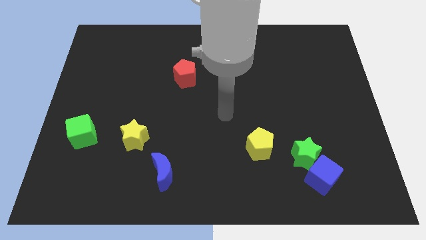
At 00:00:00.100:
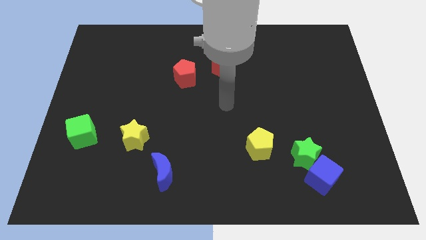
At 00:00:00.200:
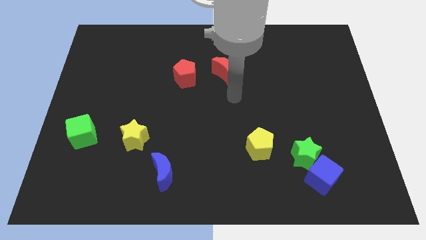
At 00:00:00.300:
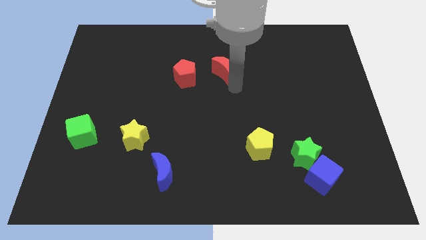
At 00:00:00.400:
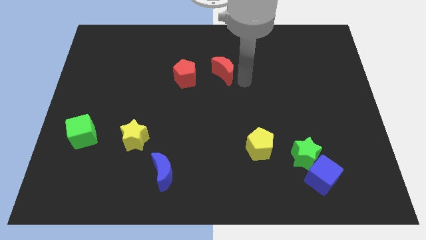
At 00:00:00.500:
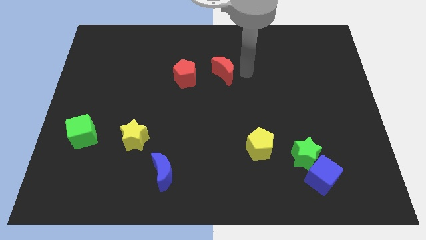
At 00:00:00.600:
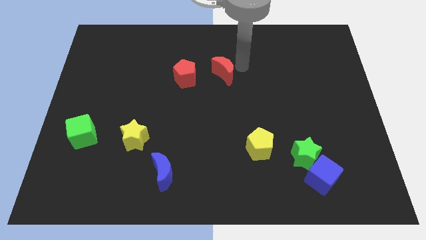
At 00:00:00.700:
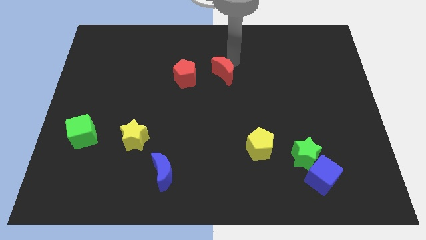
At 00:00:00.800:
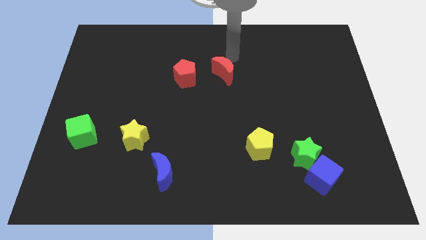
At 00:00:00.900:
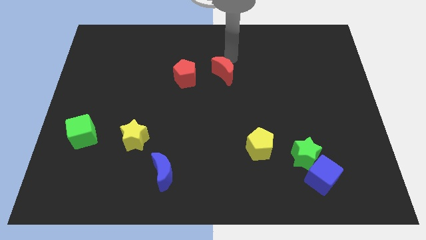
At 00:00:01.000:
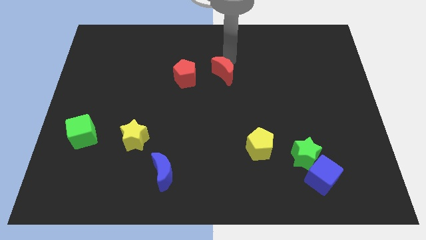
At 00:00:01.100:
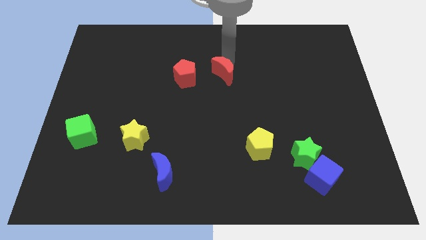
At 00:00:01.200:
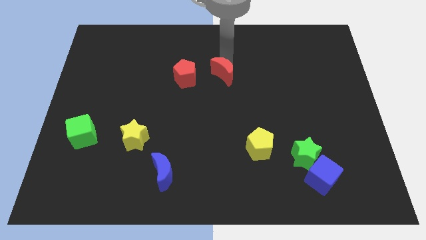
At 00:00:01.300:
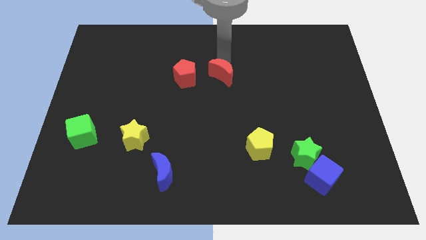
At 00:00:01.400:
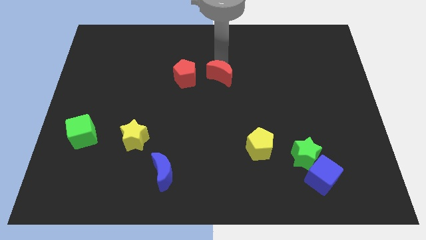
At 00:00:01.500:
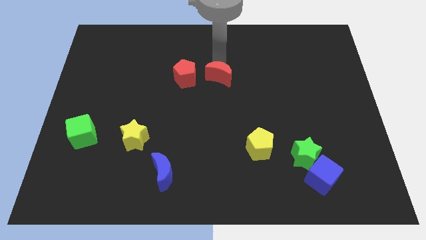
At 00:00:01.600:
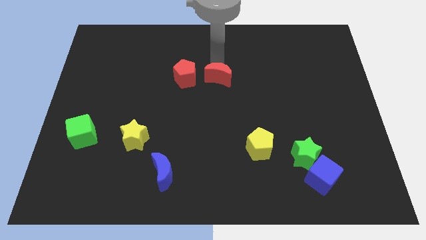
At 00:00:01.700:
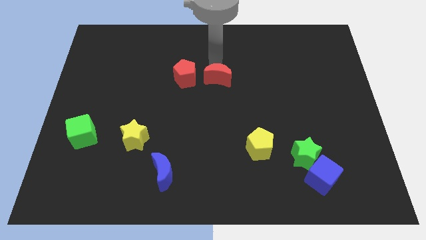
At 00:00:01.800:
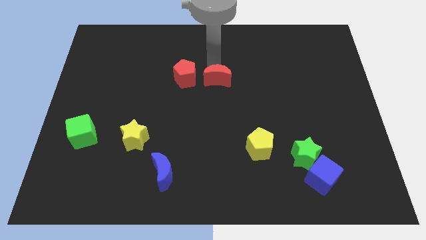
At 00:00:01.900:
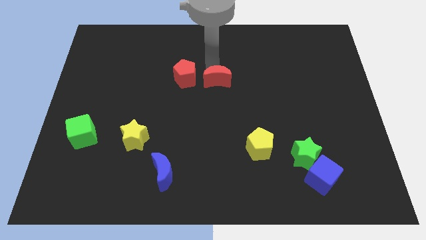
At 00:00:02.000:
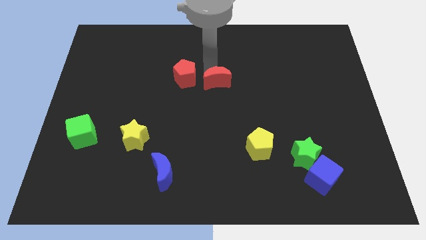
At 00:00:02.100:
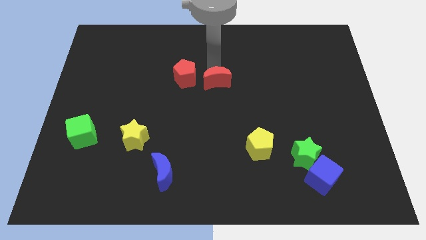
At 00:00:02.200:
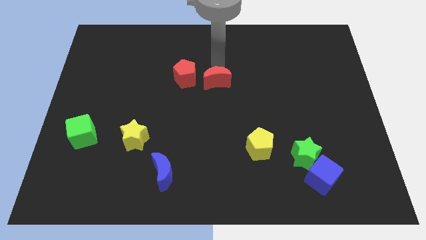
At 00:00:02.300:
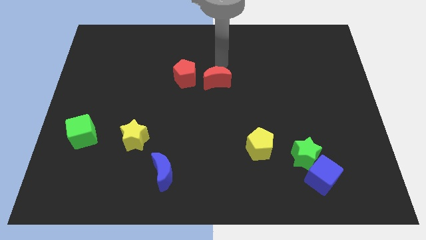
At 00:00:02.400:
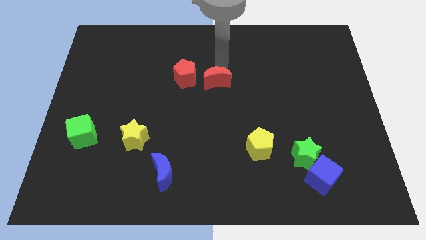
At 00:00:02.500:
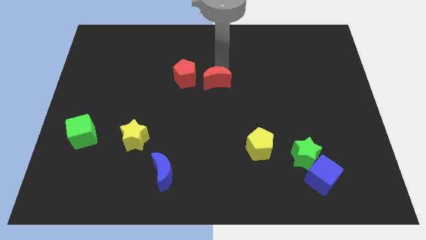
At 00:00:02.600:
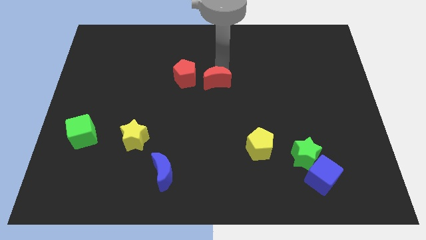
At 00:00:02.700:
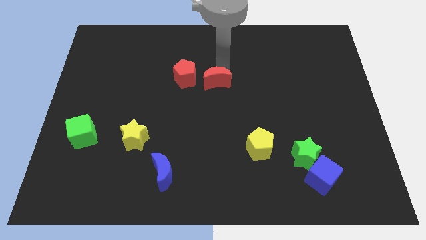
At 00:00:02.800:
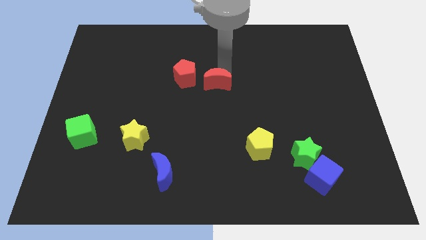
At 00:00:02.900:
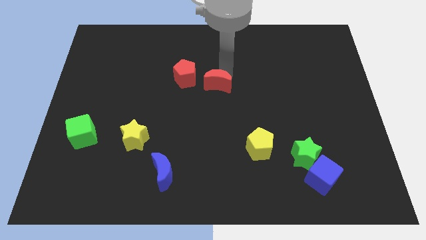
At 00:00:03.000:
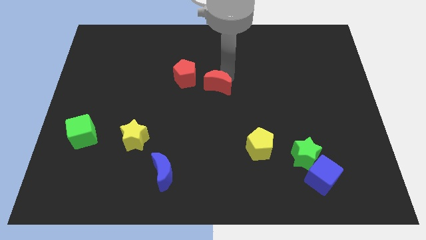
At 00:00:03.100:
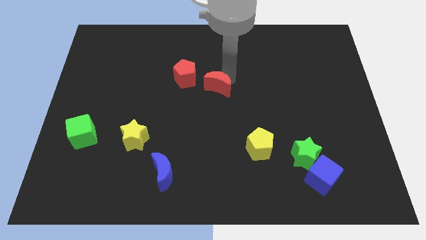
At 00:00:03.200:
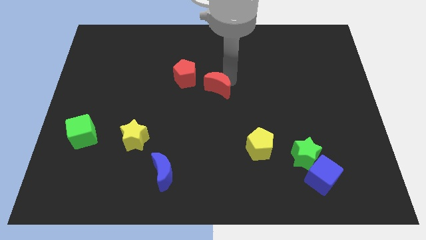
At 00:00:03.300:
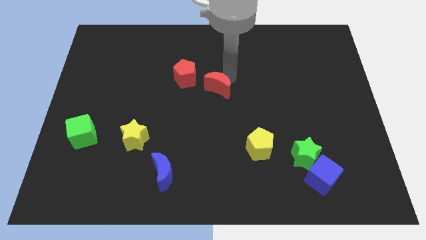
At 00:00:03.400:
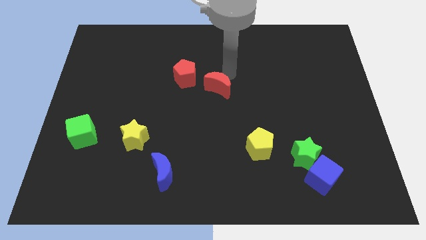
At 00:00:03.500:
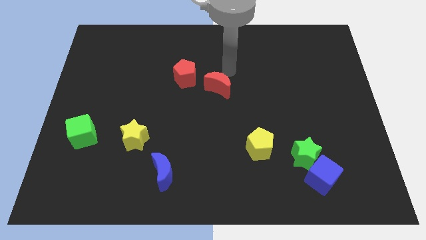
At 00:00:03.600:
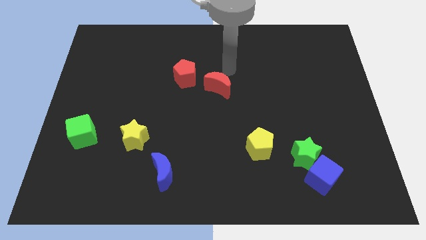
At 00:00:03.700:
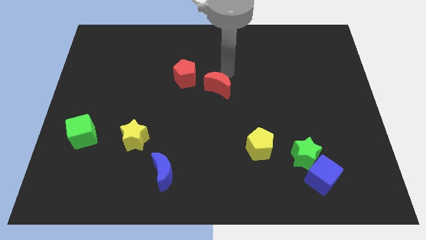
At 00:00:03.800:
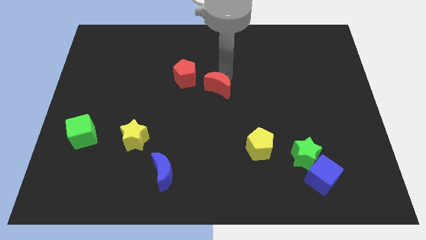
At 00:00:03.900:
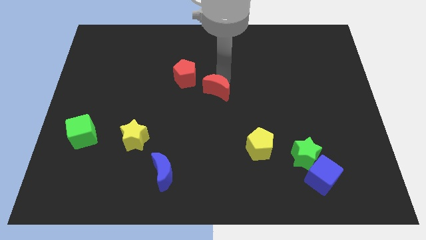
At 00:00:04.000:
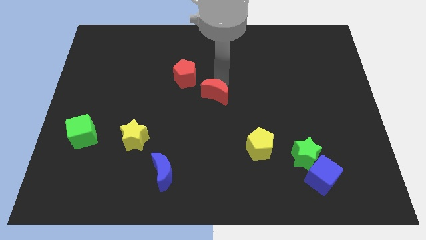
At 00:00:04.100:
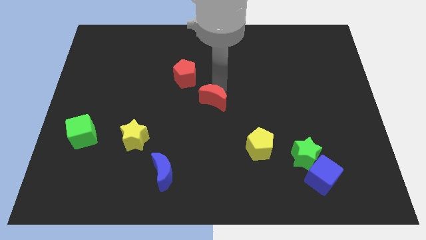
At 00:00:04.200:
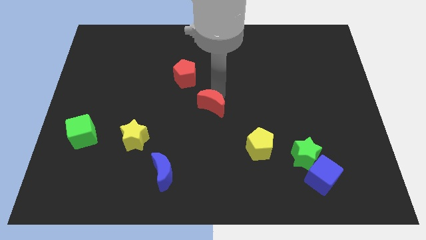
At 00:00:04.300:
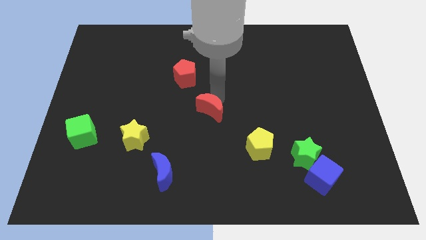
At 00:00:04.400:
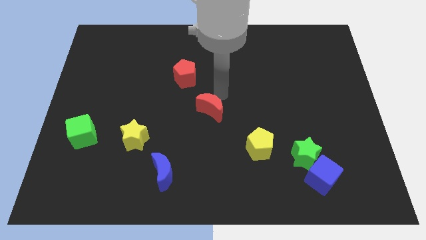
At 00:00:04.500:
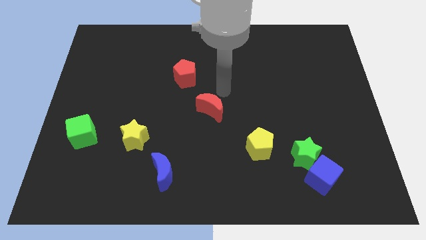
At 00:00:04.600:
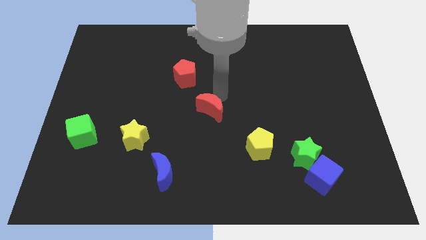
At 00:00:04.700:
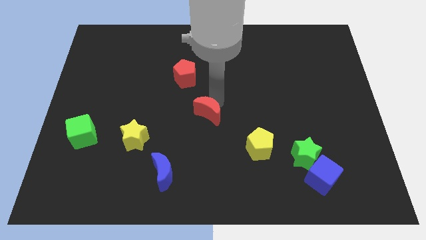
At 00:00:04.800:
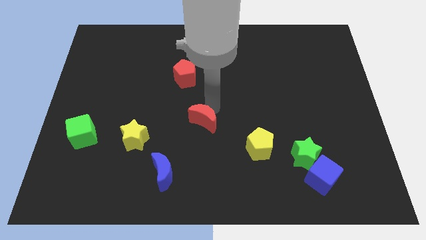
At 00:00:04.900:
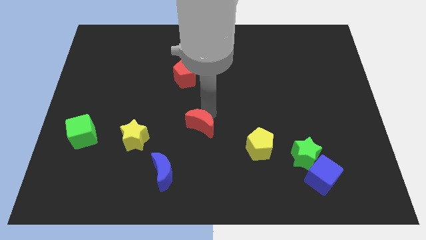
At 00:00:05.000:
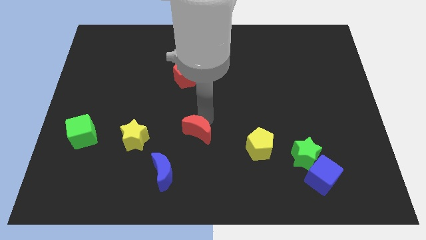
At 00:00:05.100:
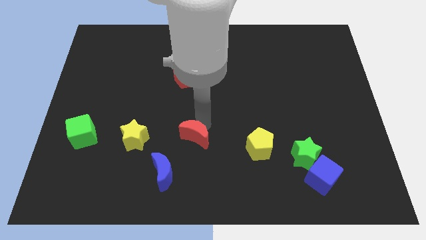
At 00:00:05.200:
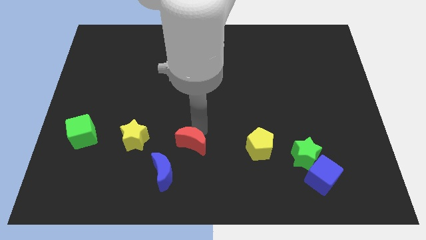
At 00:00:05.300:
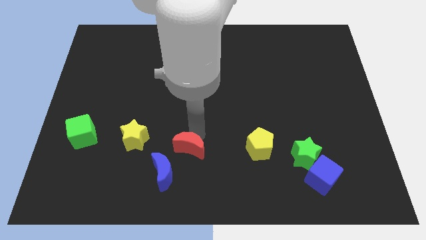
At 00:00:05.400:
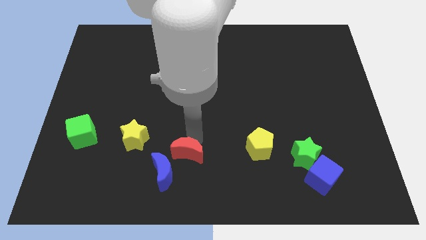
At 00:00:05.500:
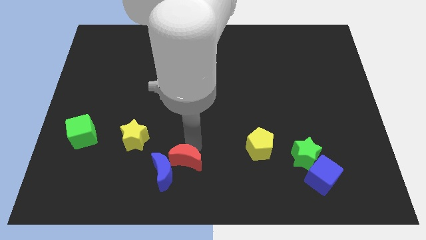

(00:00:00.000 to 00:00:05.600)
push the red moon next to the blue moon

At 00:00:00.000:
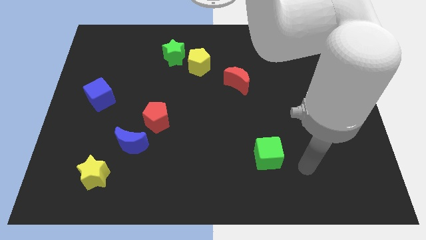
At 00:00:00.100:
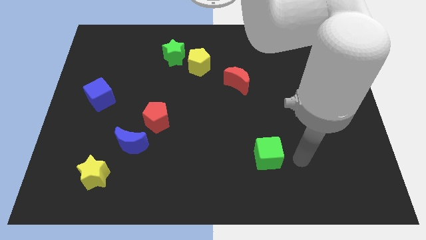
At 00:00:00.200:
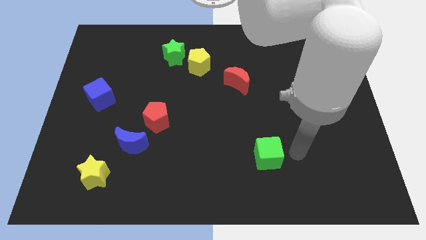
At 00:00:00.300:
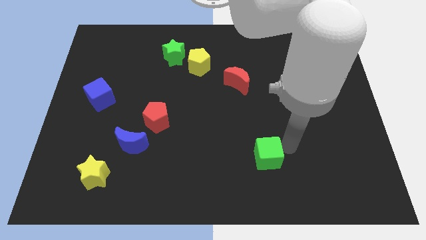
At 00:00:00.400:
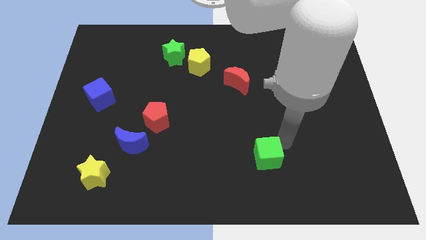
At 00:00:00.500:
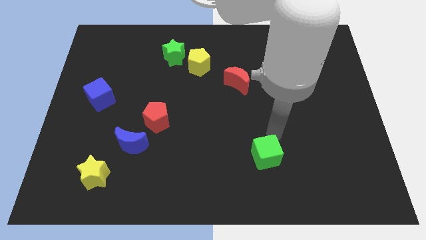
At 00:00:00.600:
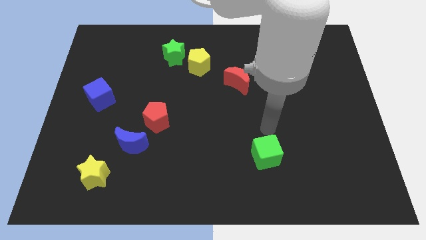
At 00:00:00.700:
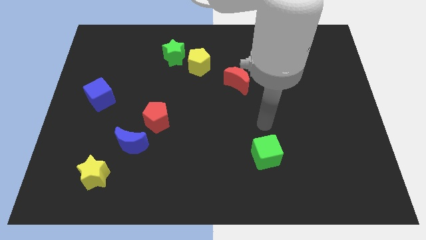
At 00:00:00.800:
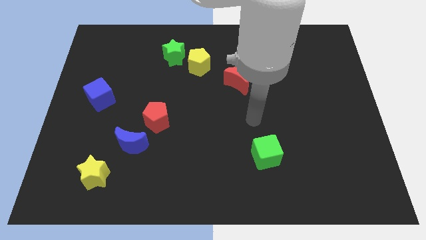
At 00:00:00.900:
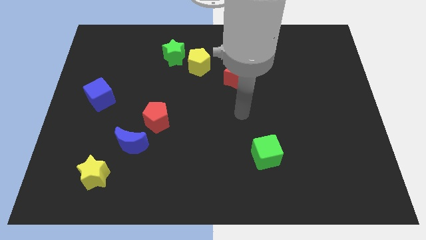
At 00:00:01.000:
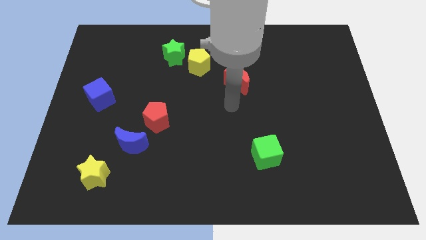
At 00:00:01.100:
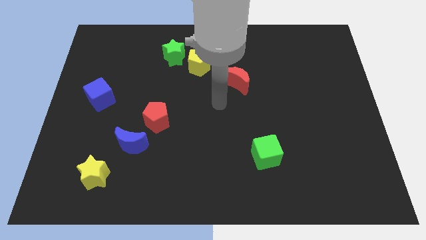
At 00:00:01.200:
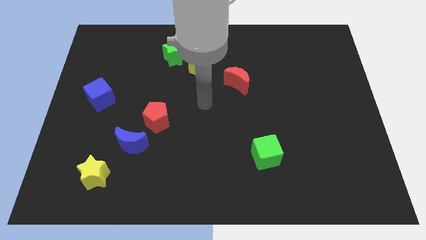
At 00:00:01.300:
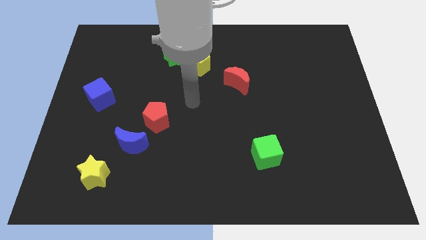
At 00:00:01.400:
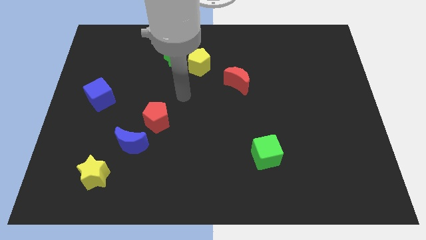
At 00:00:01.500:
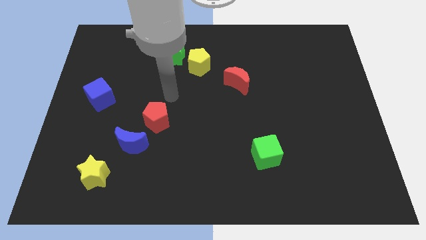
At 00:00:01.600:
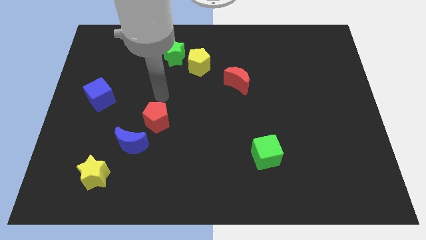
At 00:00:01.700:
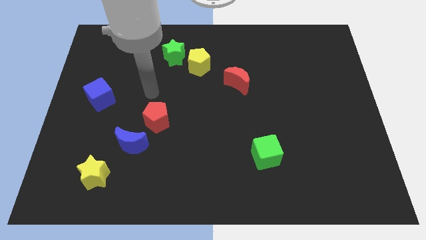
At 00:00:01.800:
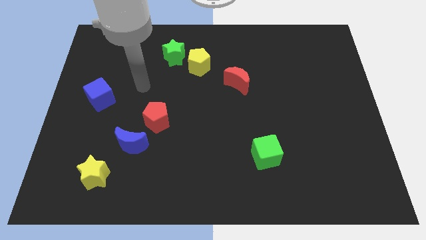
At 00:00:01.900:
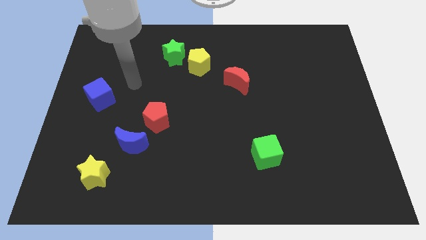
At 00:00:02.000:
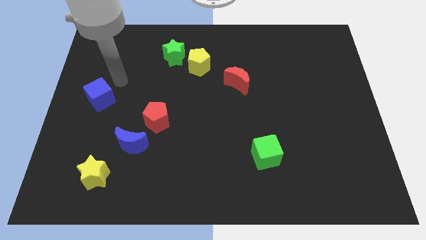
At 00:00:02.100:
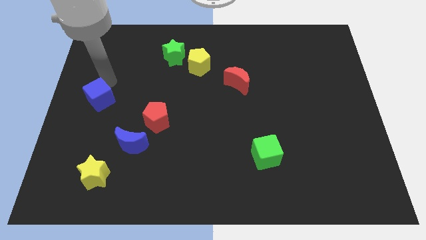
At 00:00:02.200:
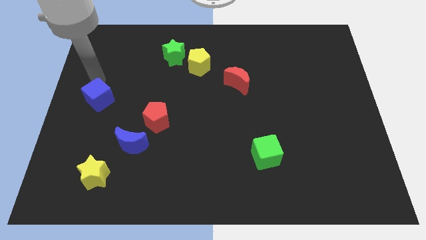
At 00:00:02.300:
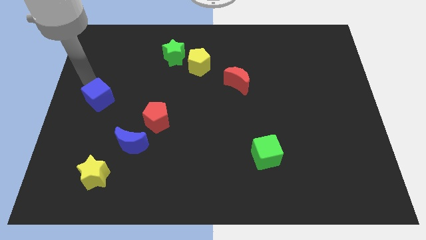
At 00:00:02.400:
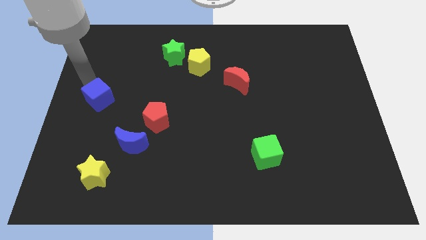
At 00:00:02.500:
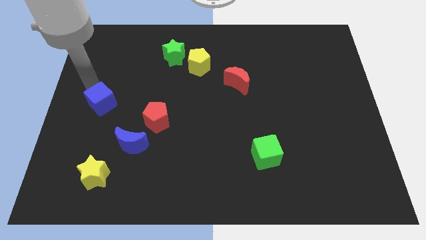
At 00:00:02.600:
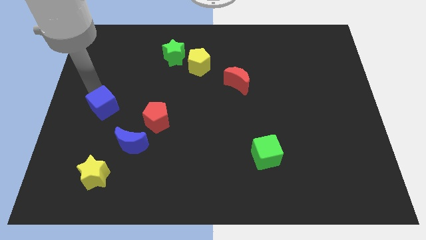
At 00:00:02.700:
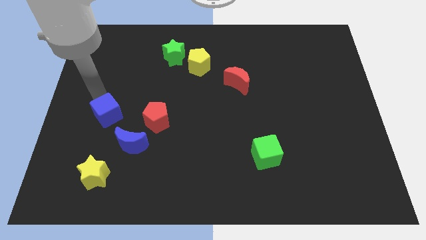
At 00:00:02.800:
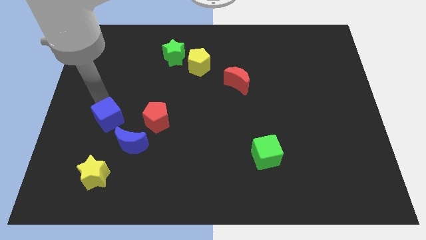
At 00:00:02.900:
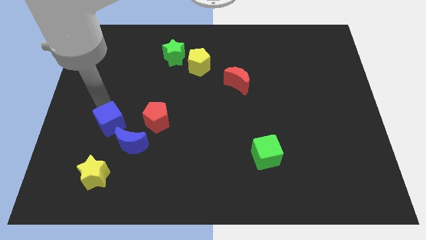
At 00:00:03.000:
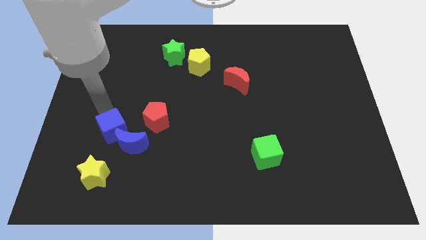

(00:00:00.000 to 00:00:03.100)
push the blue cube next to the blue moon
